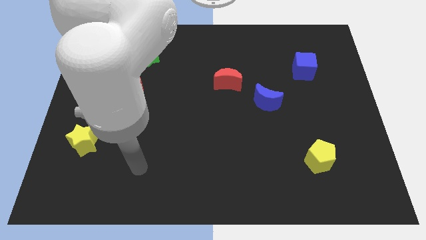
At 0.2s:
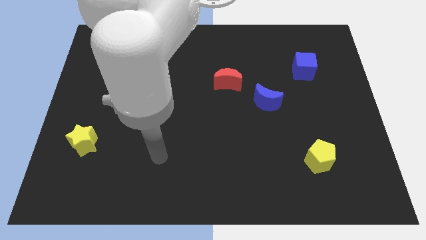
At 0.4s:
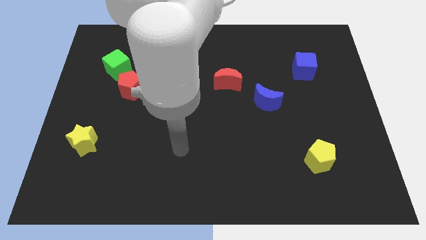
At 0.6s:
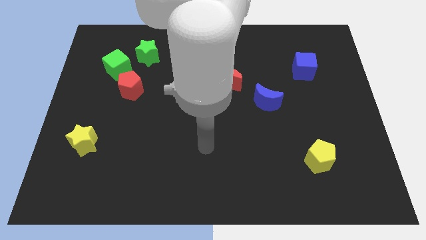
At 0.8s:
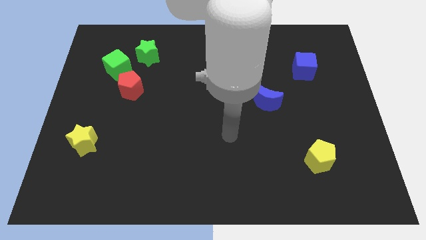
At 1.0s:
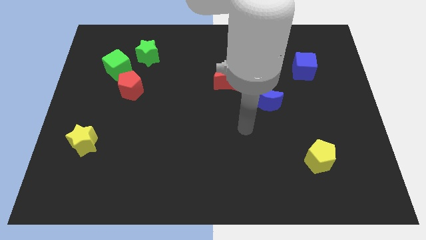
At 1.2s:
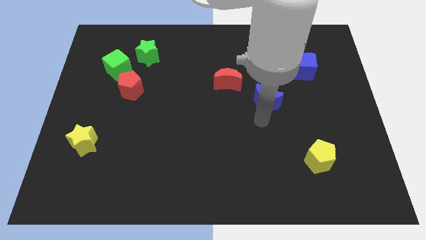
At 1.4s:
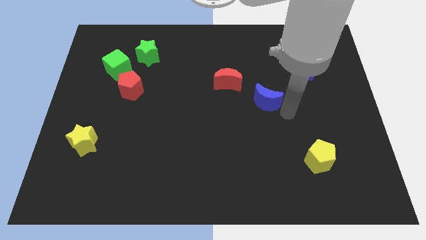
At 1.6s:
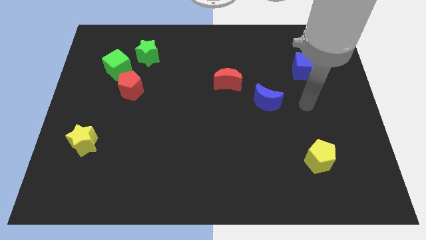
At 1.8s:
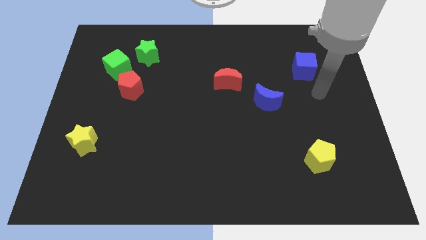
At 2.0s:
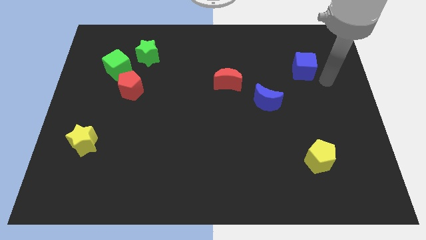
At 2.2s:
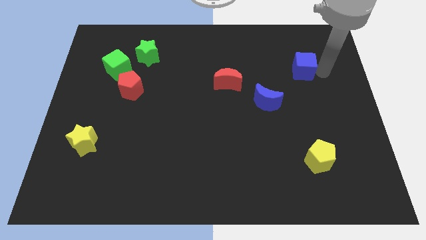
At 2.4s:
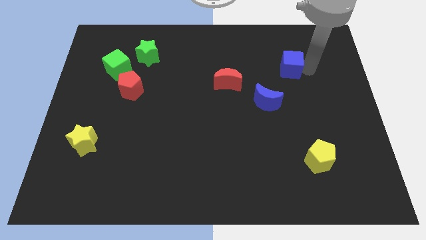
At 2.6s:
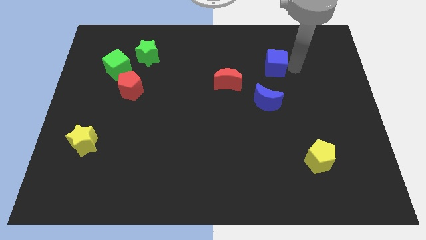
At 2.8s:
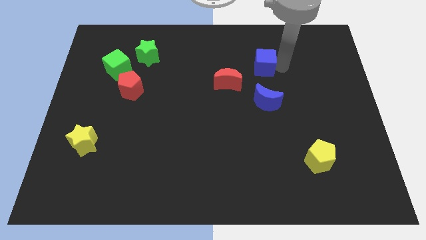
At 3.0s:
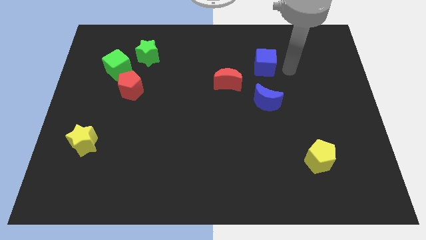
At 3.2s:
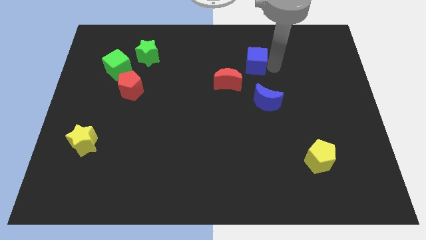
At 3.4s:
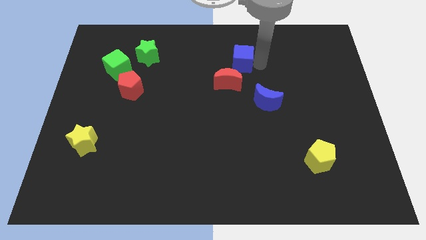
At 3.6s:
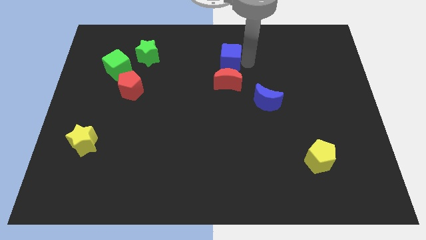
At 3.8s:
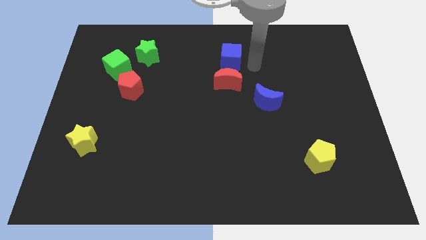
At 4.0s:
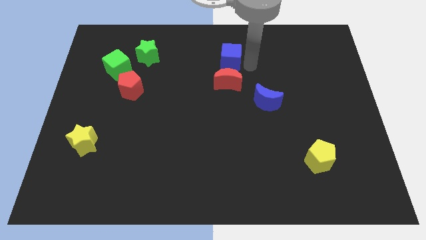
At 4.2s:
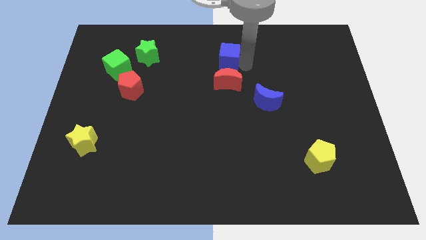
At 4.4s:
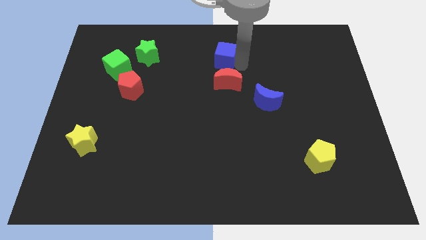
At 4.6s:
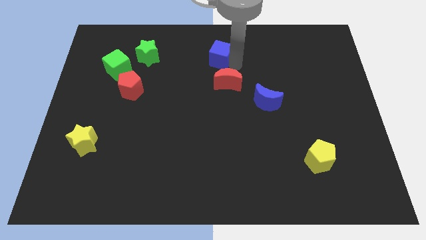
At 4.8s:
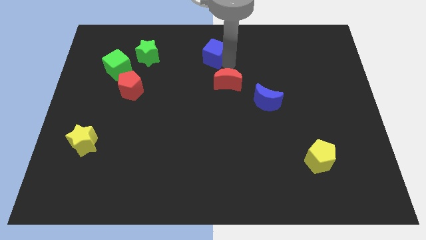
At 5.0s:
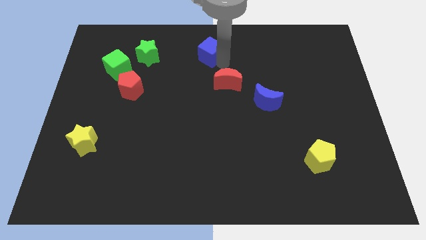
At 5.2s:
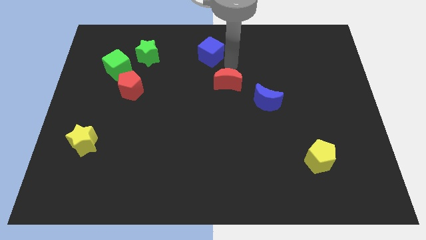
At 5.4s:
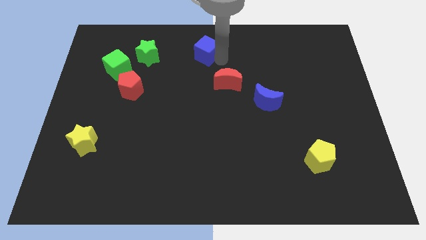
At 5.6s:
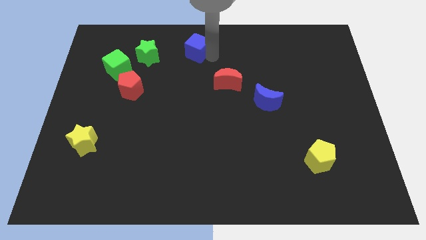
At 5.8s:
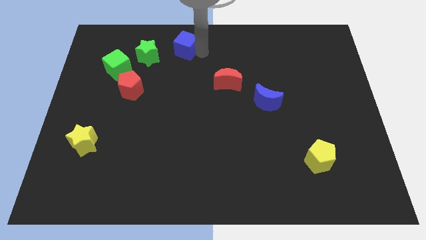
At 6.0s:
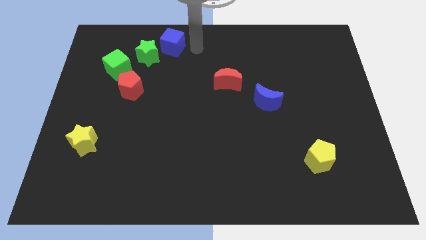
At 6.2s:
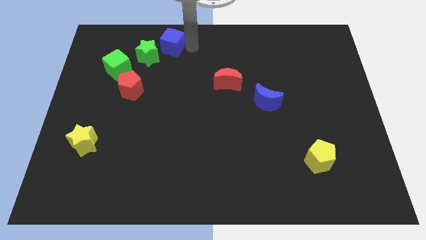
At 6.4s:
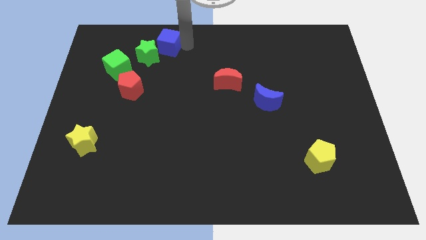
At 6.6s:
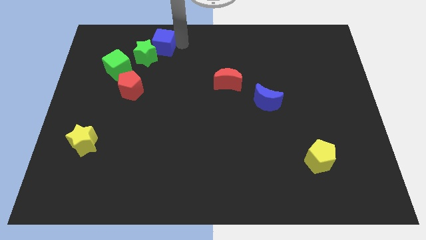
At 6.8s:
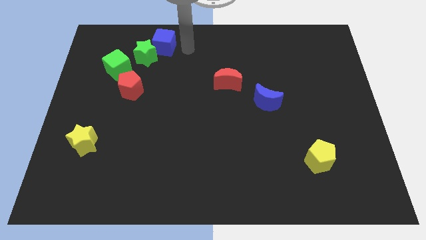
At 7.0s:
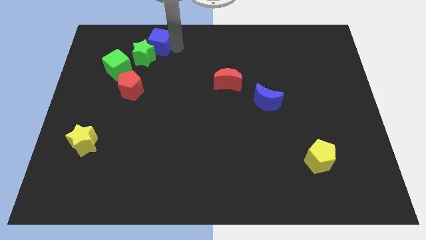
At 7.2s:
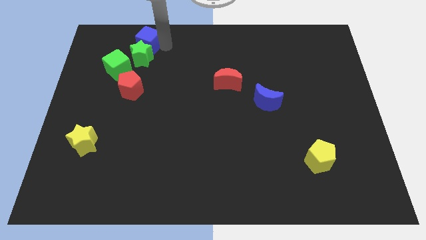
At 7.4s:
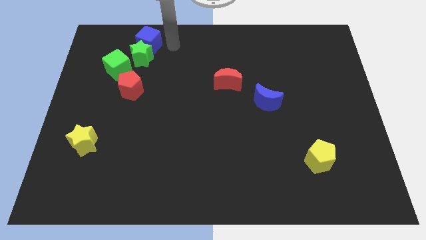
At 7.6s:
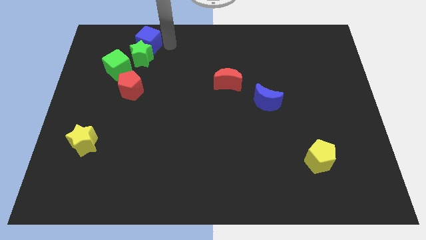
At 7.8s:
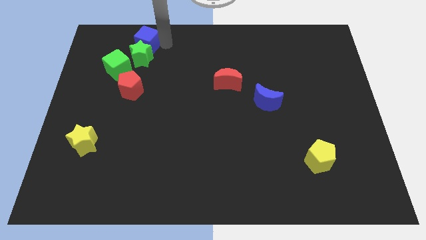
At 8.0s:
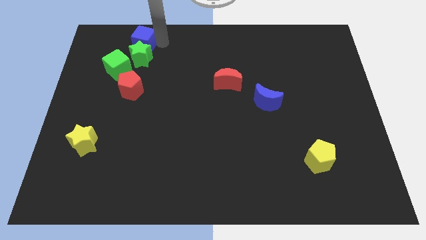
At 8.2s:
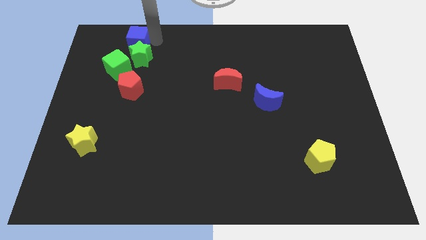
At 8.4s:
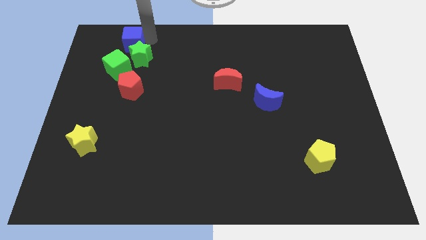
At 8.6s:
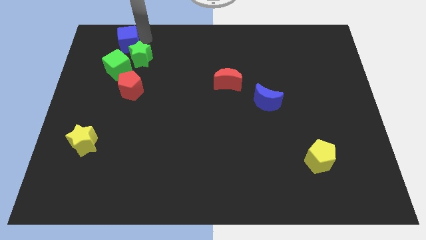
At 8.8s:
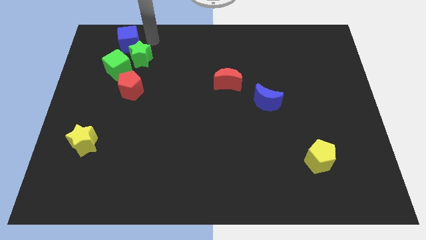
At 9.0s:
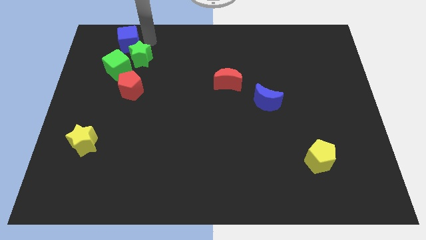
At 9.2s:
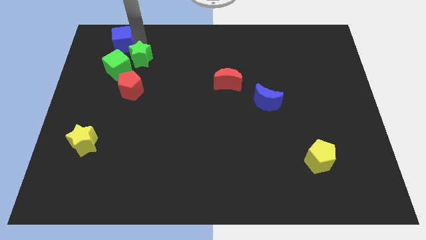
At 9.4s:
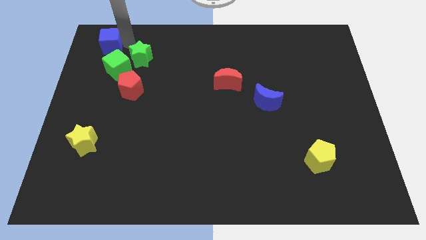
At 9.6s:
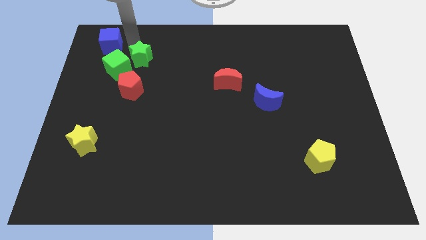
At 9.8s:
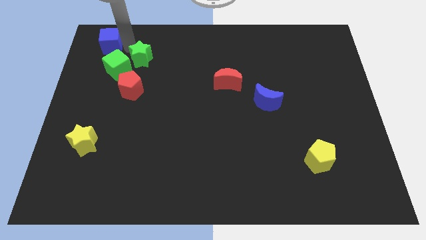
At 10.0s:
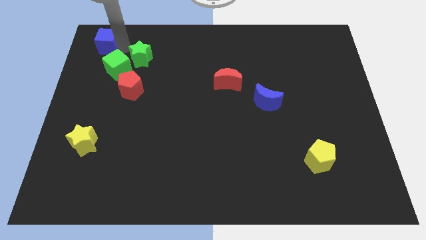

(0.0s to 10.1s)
slide the blue cube to the top left

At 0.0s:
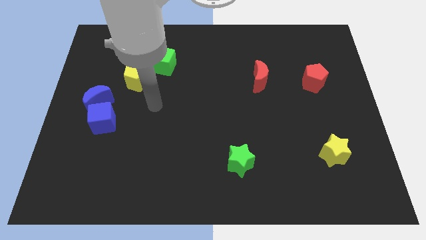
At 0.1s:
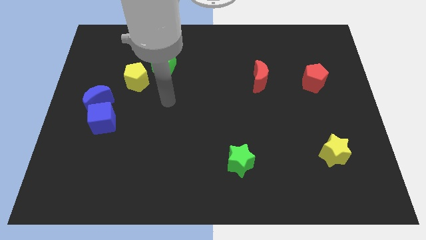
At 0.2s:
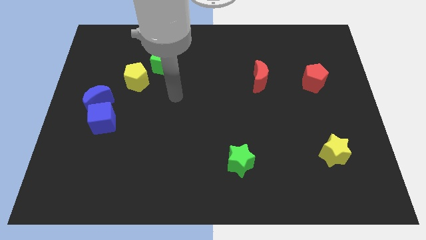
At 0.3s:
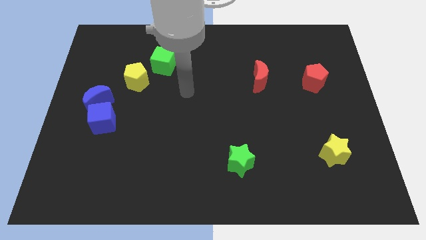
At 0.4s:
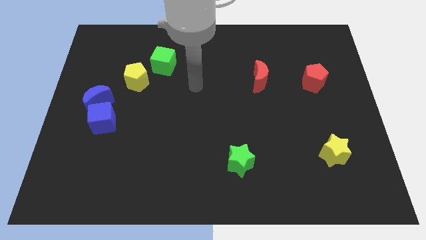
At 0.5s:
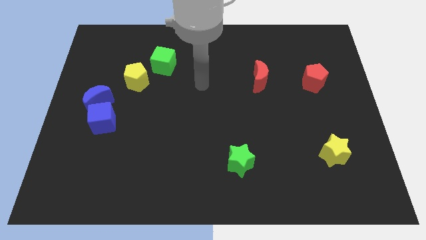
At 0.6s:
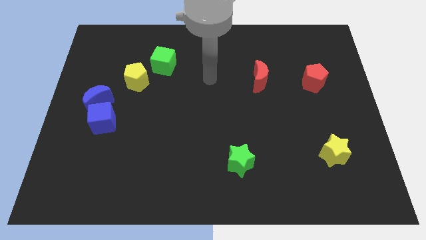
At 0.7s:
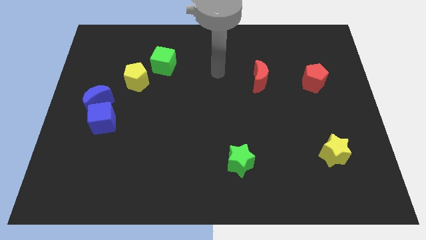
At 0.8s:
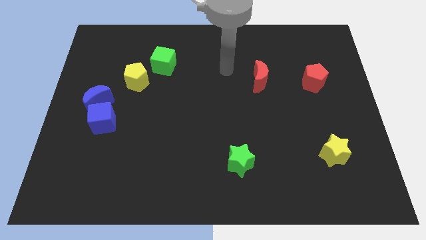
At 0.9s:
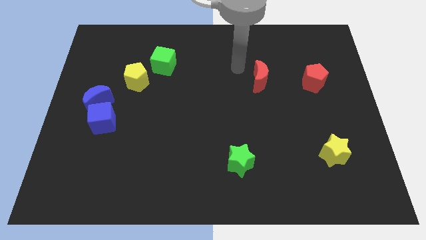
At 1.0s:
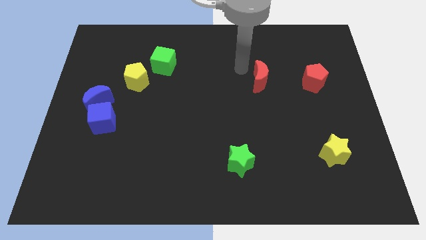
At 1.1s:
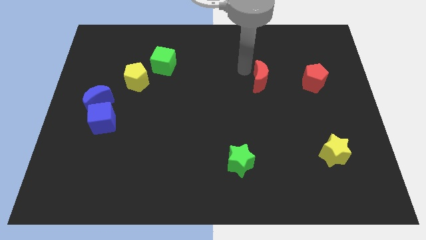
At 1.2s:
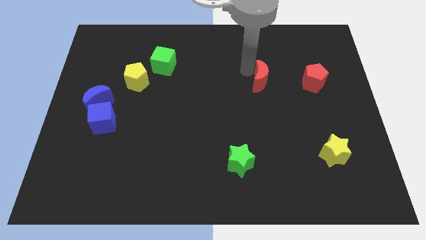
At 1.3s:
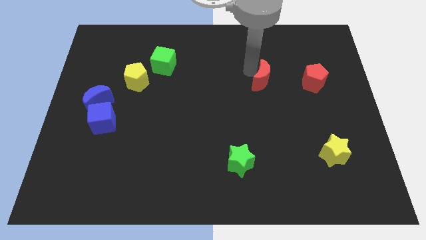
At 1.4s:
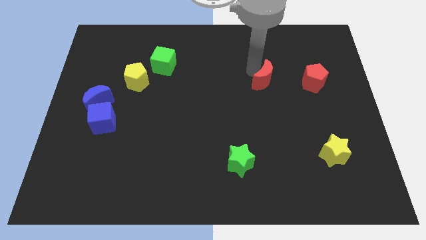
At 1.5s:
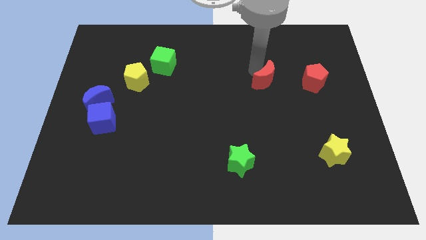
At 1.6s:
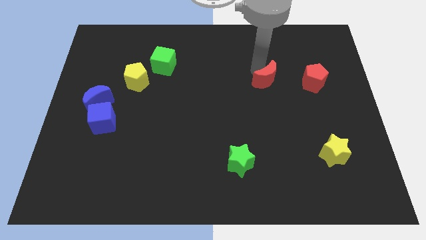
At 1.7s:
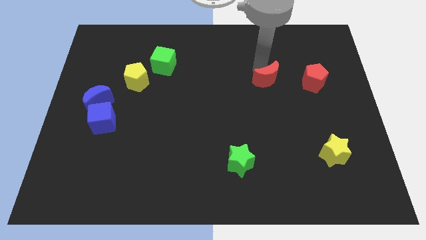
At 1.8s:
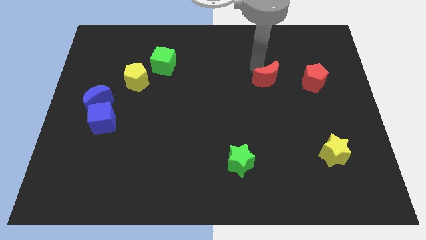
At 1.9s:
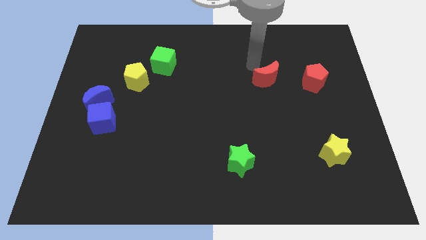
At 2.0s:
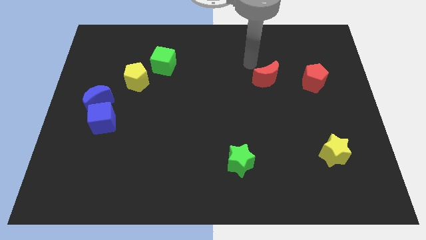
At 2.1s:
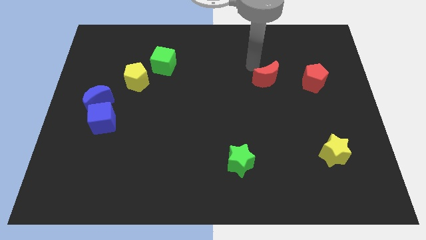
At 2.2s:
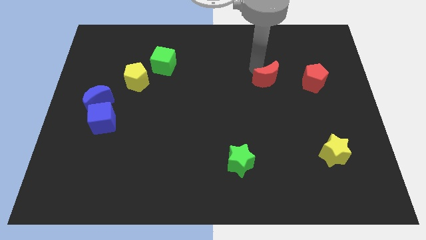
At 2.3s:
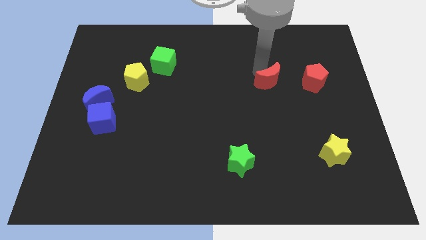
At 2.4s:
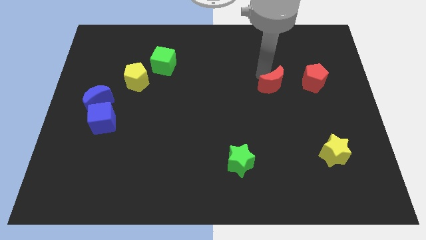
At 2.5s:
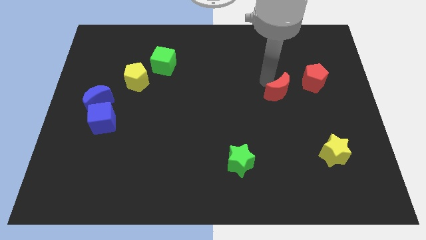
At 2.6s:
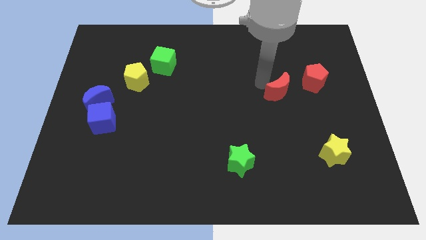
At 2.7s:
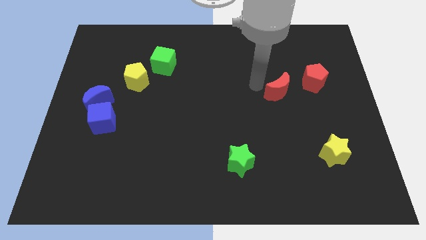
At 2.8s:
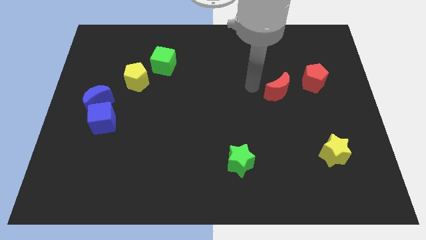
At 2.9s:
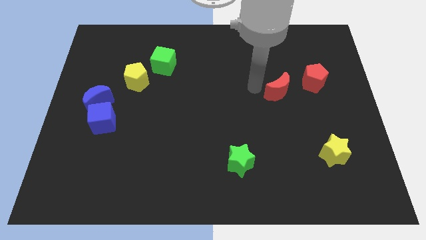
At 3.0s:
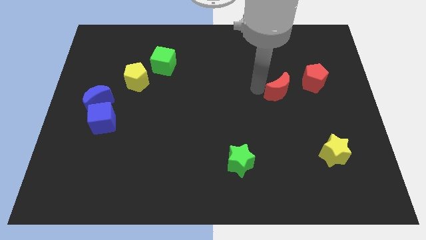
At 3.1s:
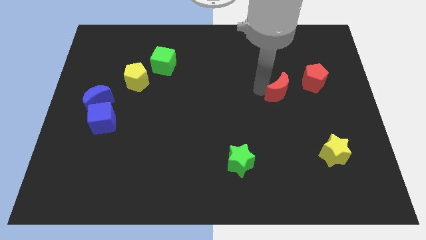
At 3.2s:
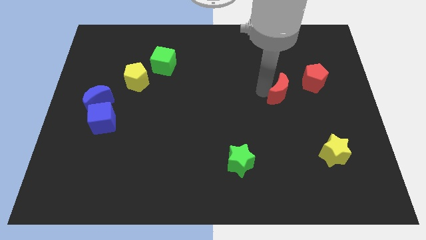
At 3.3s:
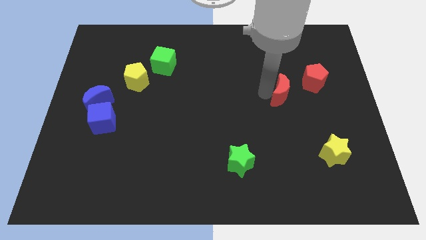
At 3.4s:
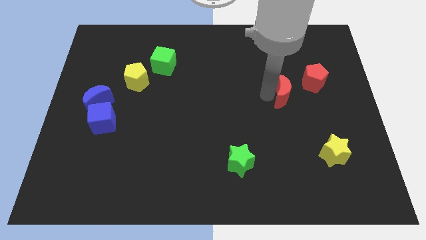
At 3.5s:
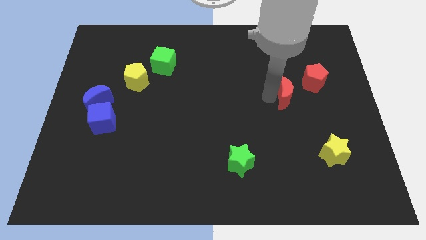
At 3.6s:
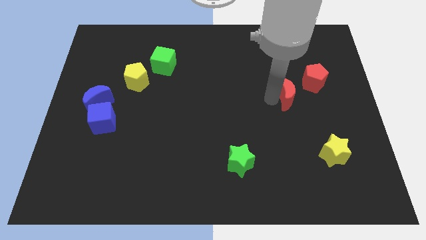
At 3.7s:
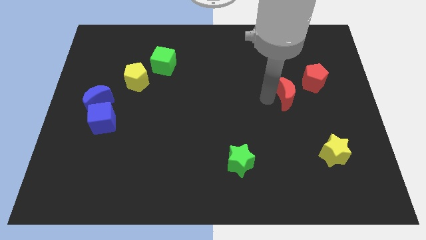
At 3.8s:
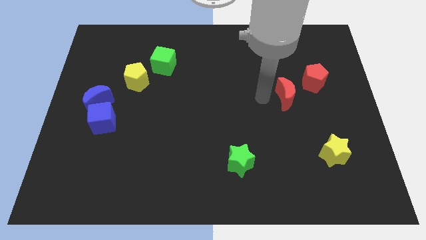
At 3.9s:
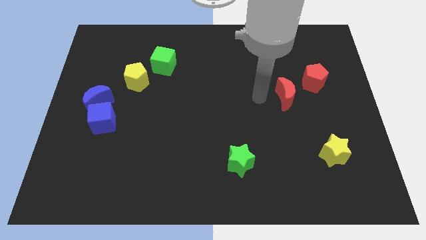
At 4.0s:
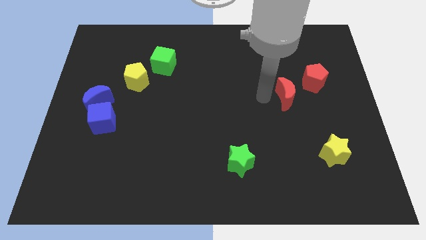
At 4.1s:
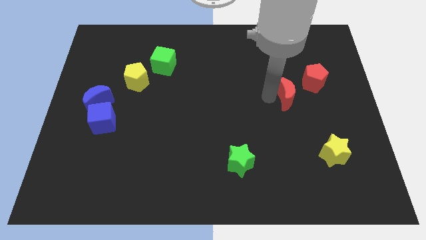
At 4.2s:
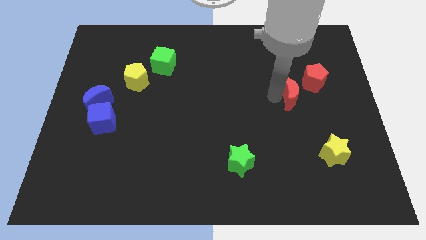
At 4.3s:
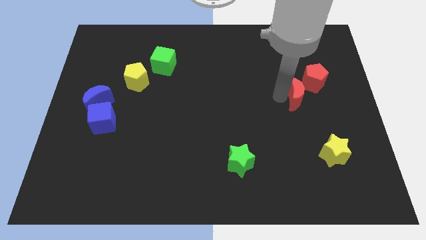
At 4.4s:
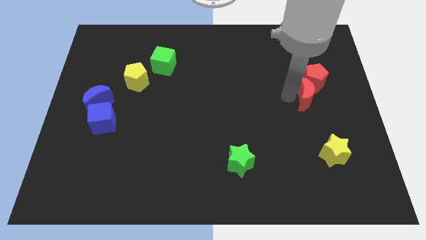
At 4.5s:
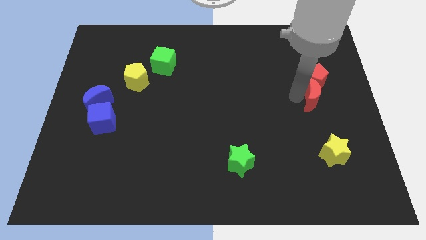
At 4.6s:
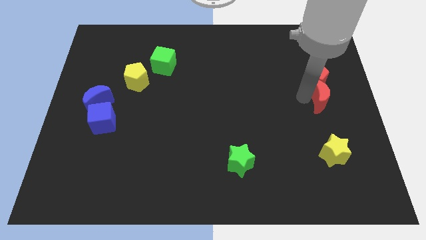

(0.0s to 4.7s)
move the red moon to the right side
